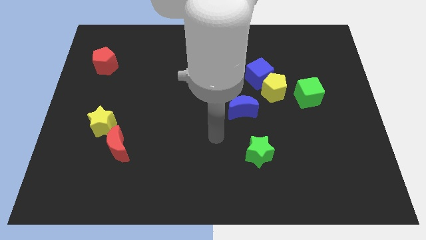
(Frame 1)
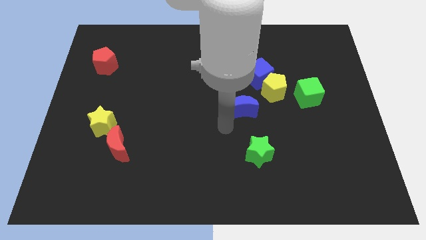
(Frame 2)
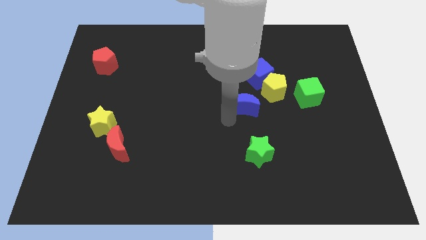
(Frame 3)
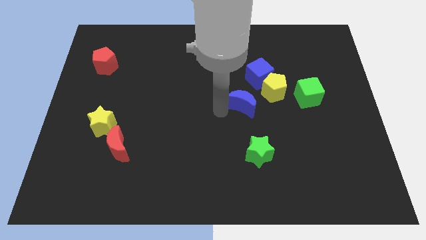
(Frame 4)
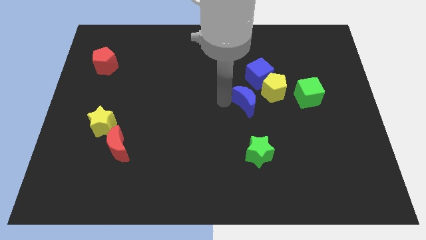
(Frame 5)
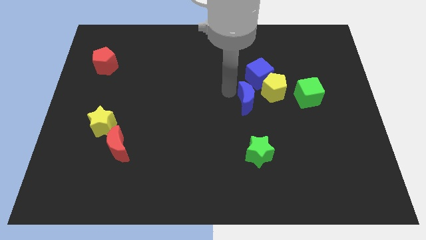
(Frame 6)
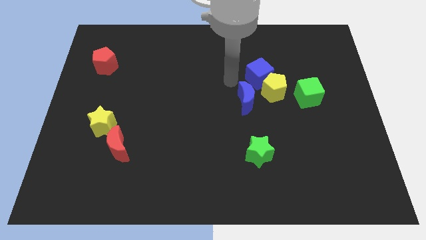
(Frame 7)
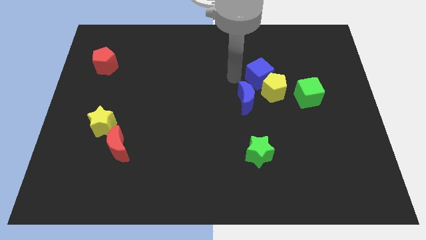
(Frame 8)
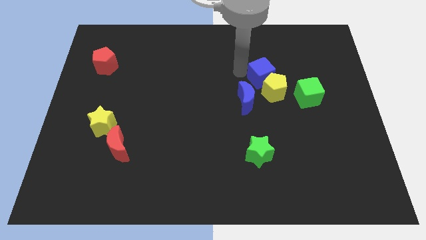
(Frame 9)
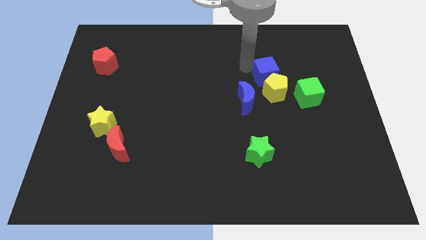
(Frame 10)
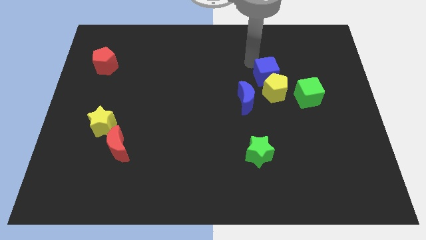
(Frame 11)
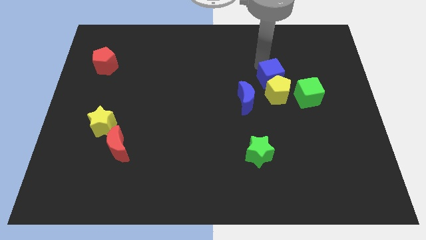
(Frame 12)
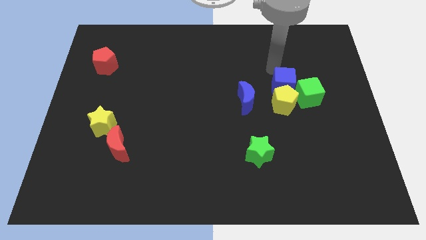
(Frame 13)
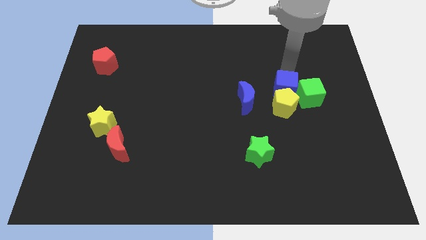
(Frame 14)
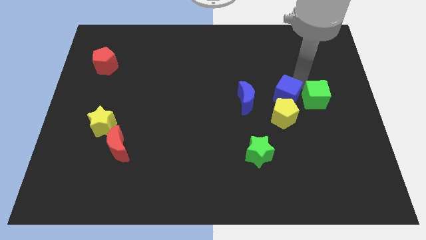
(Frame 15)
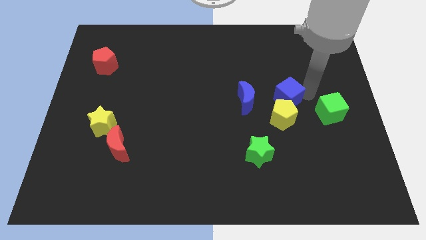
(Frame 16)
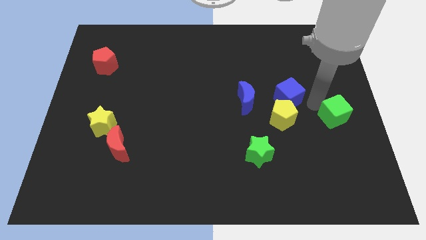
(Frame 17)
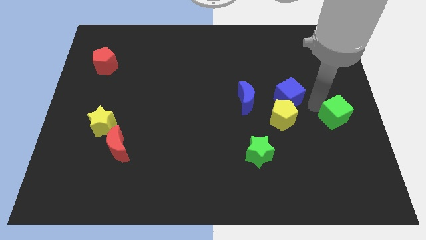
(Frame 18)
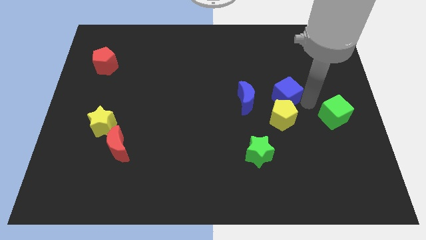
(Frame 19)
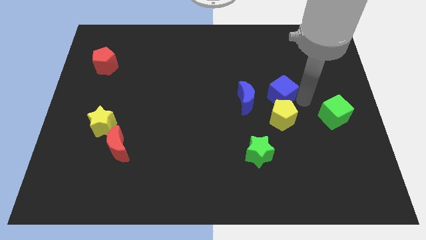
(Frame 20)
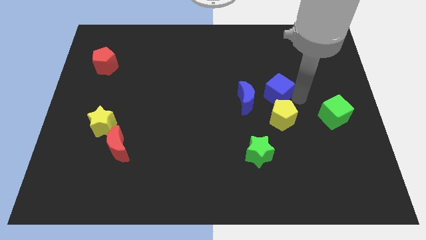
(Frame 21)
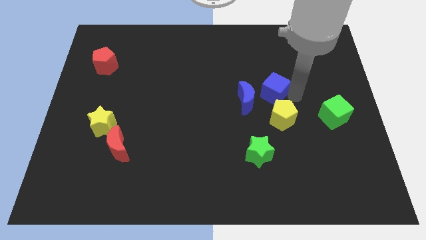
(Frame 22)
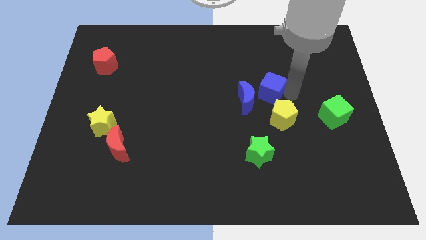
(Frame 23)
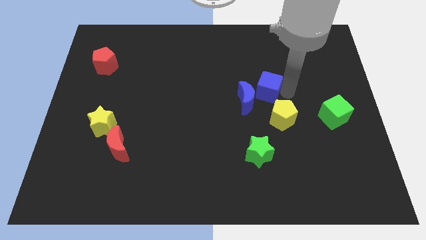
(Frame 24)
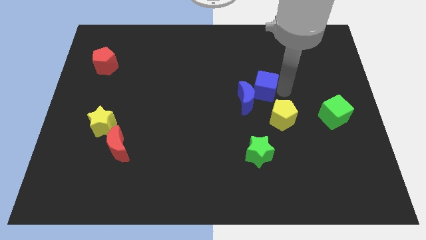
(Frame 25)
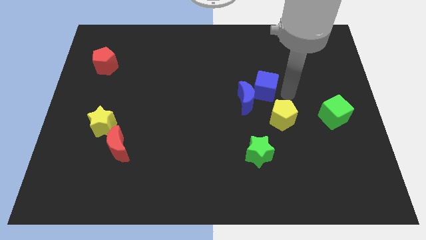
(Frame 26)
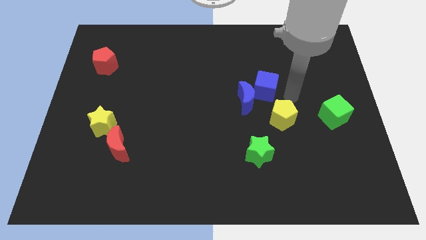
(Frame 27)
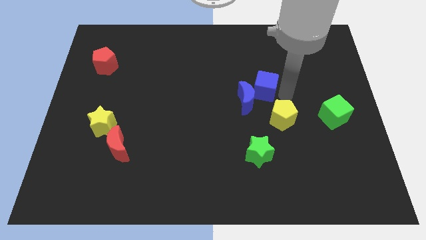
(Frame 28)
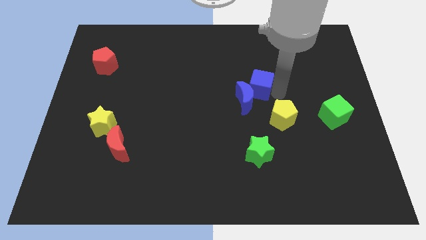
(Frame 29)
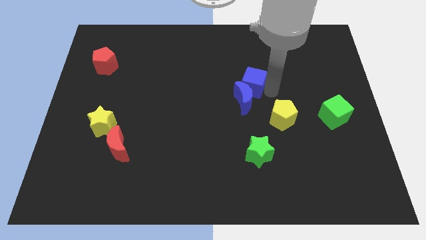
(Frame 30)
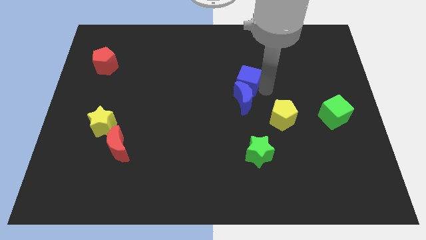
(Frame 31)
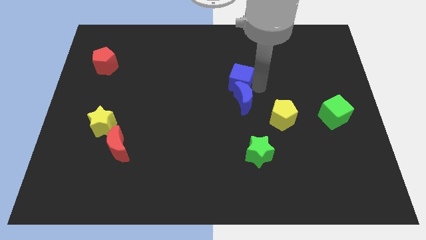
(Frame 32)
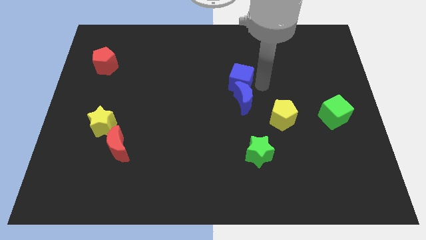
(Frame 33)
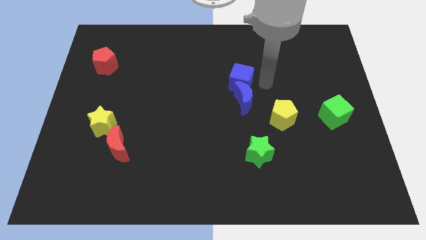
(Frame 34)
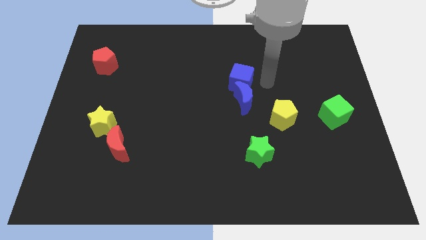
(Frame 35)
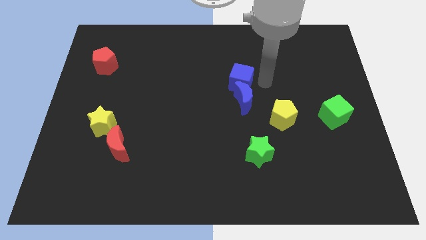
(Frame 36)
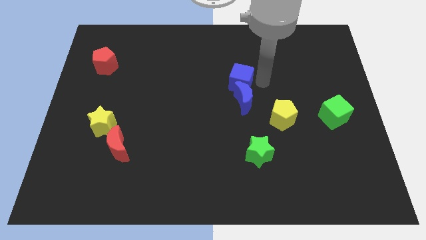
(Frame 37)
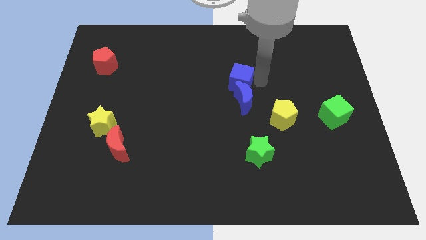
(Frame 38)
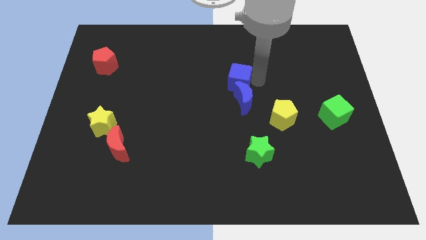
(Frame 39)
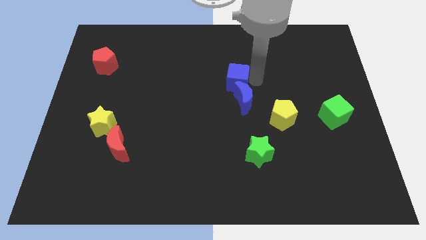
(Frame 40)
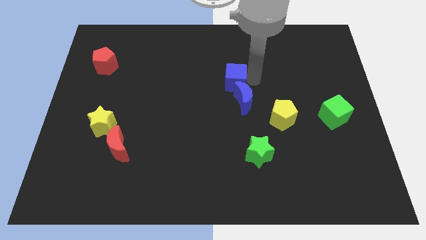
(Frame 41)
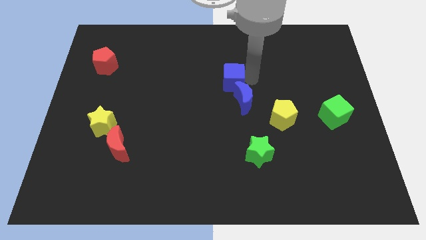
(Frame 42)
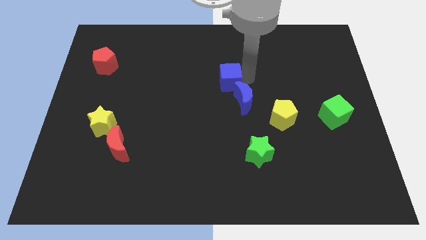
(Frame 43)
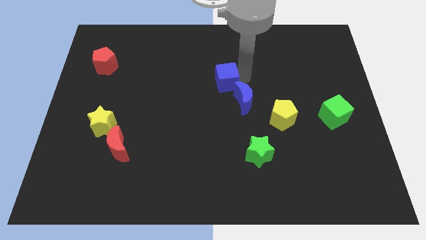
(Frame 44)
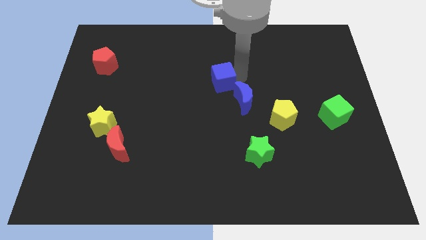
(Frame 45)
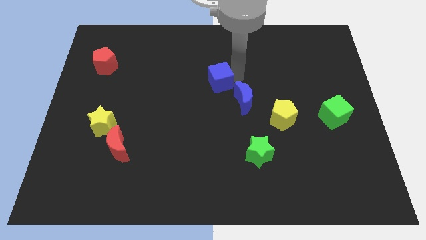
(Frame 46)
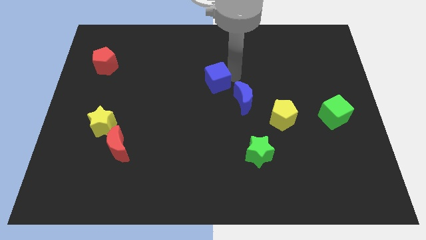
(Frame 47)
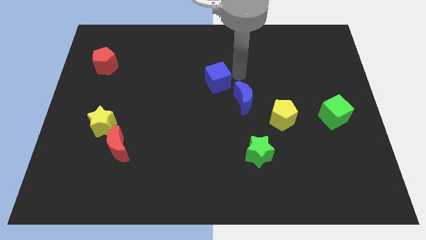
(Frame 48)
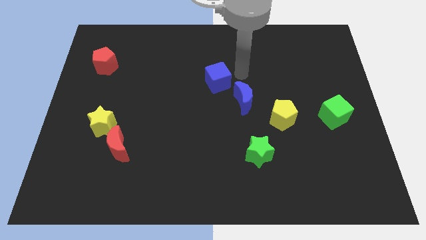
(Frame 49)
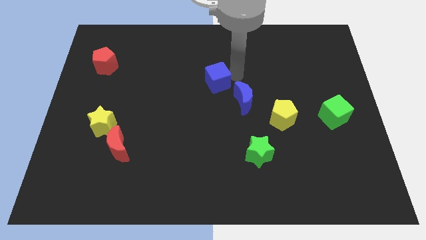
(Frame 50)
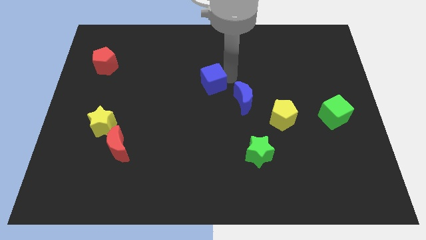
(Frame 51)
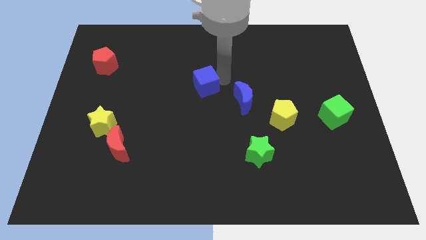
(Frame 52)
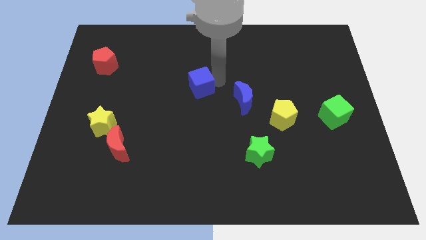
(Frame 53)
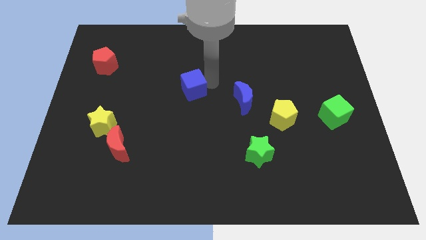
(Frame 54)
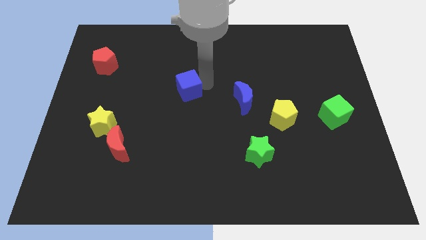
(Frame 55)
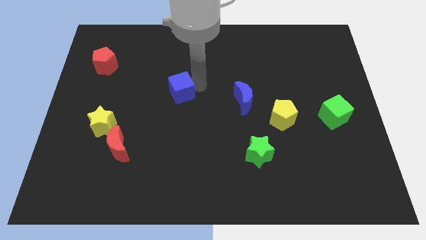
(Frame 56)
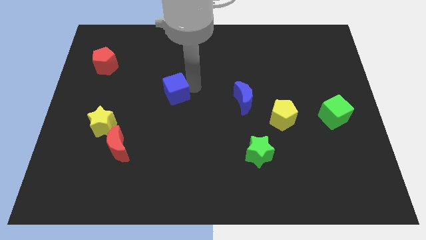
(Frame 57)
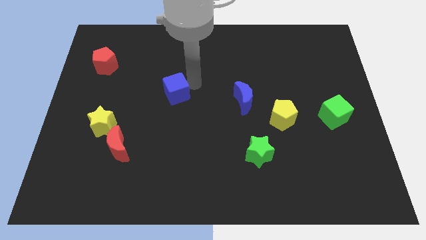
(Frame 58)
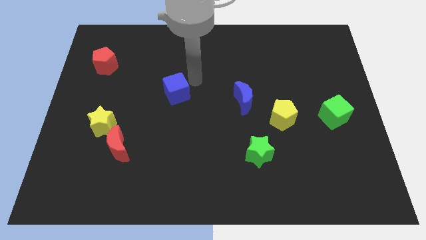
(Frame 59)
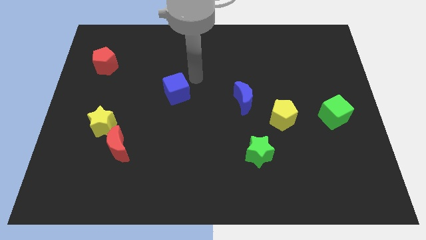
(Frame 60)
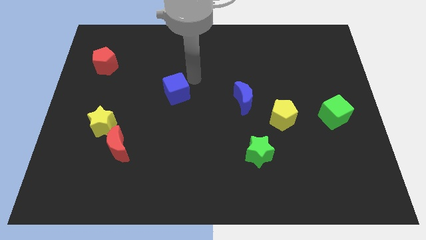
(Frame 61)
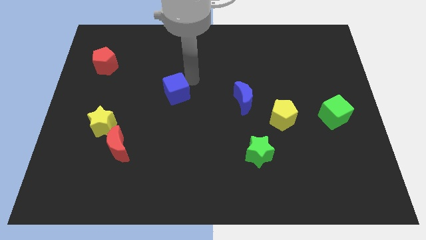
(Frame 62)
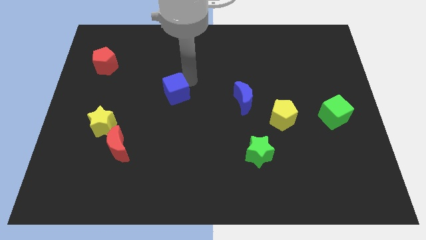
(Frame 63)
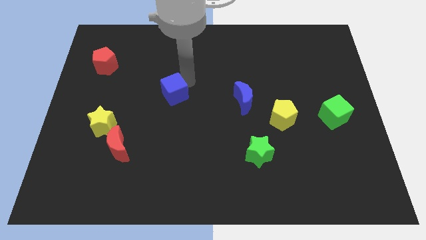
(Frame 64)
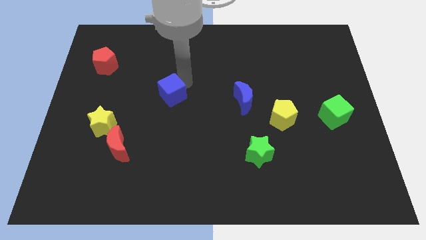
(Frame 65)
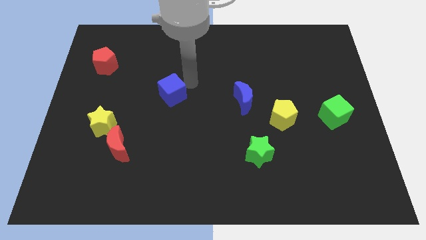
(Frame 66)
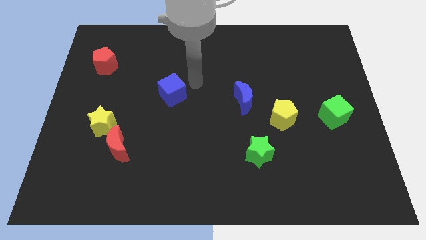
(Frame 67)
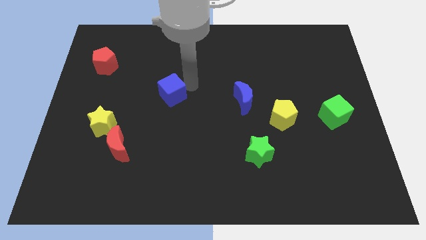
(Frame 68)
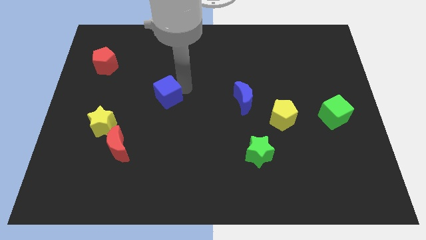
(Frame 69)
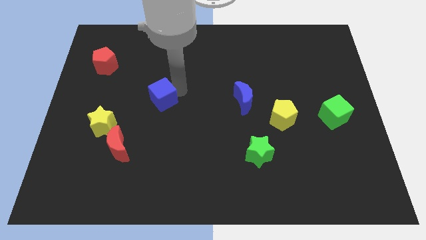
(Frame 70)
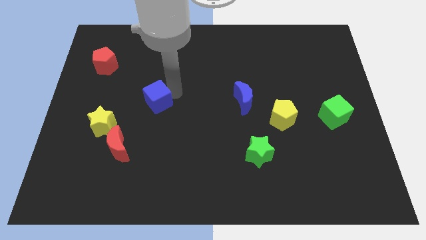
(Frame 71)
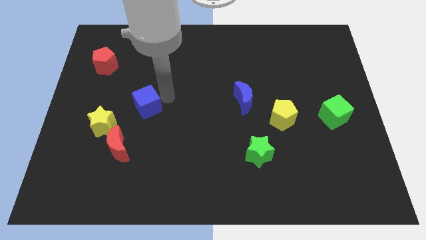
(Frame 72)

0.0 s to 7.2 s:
slide the blue cube above the red moon

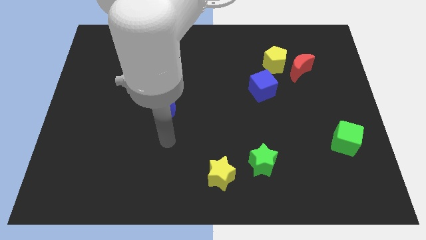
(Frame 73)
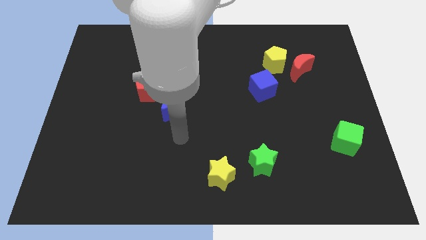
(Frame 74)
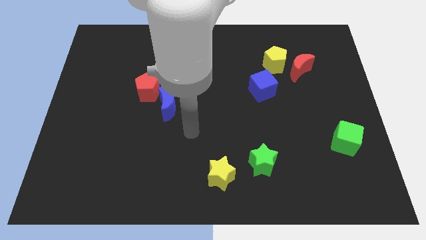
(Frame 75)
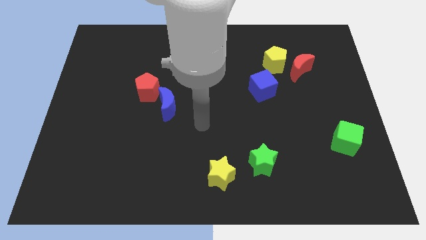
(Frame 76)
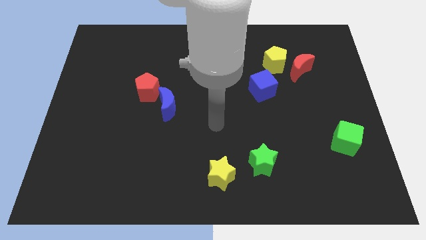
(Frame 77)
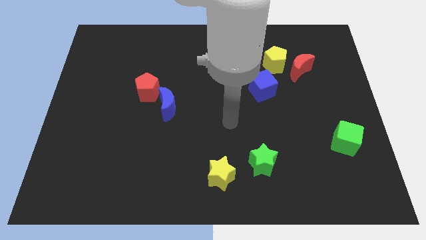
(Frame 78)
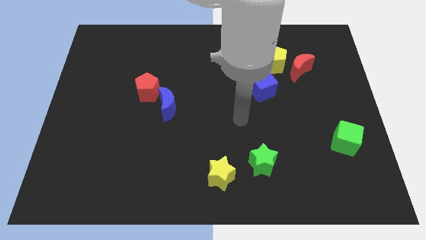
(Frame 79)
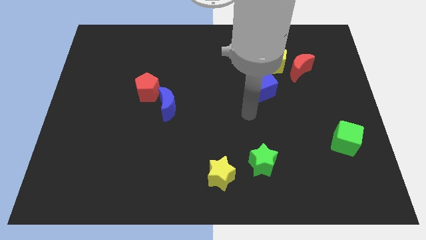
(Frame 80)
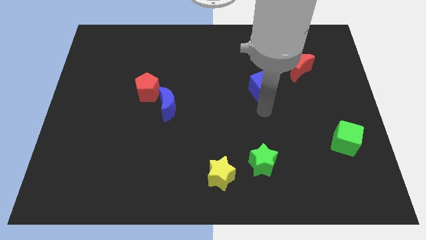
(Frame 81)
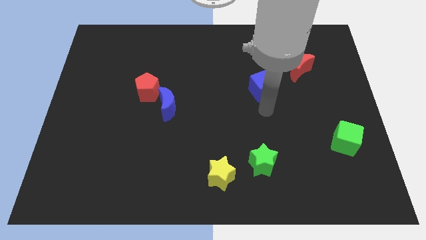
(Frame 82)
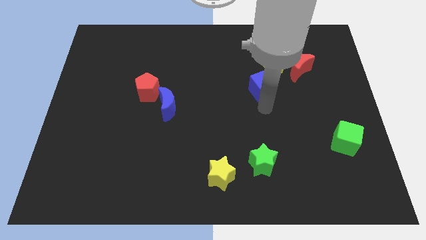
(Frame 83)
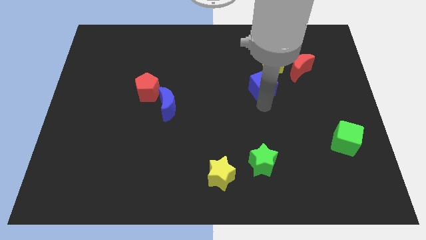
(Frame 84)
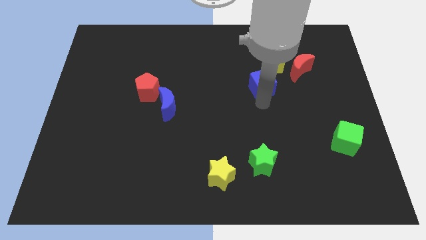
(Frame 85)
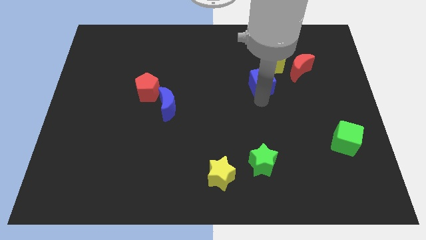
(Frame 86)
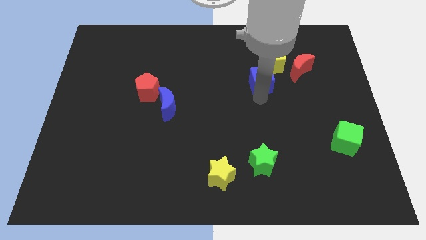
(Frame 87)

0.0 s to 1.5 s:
move the blue cube to the left of the red moon
